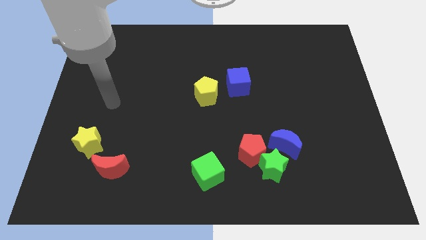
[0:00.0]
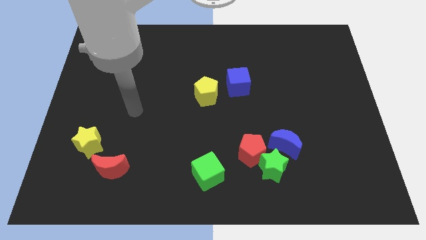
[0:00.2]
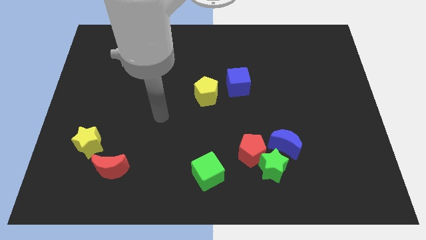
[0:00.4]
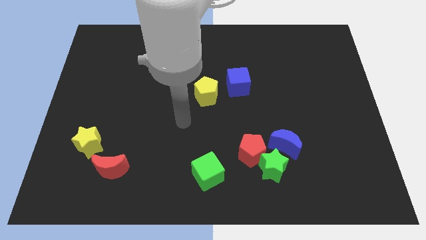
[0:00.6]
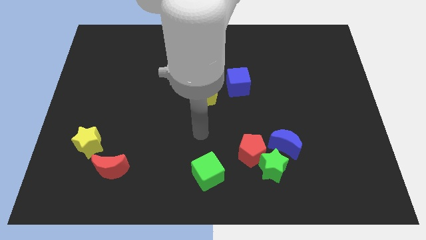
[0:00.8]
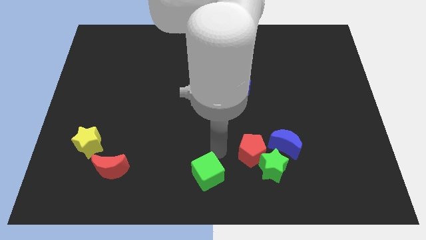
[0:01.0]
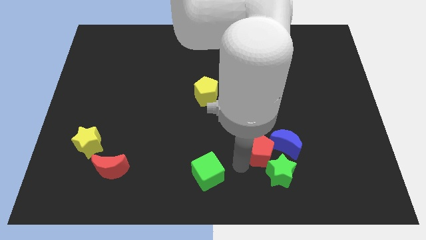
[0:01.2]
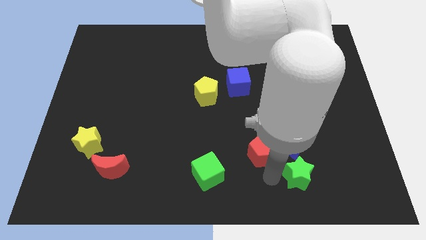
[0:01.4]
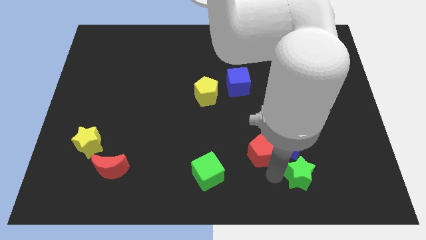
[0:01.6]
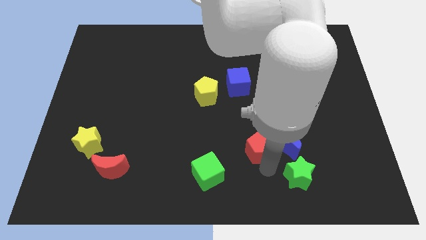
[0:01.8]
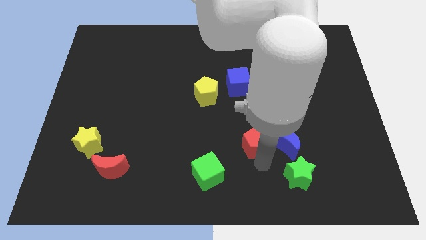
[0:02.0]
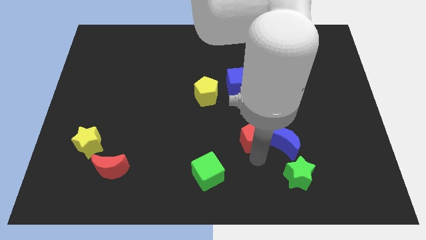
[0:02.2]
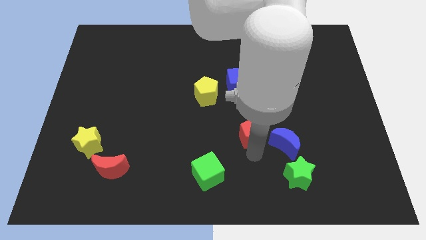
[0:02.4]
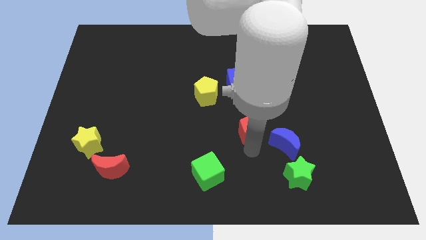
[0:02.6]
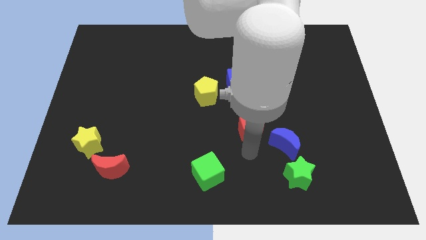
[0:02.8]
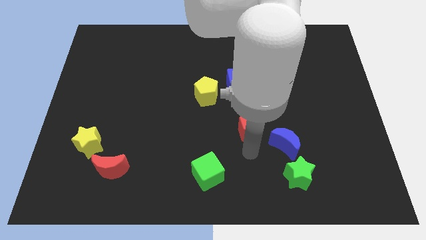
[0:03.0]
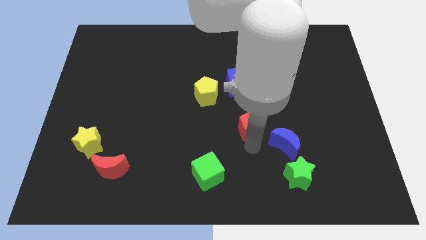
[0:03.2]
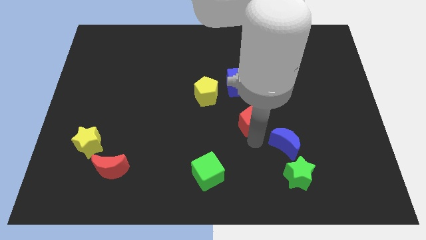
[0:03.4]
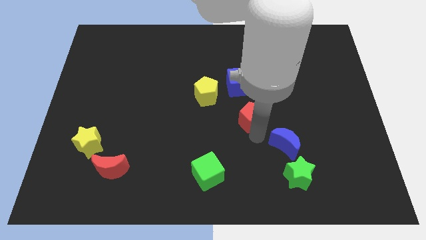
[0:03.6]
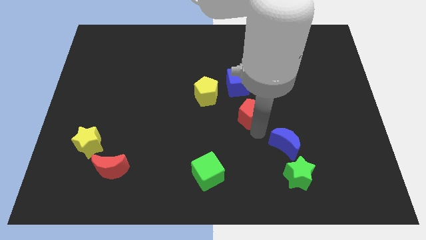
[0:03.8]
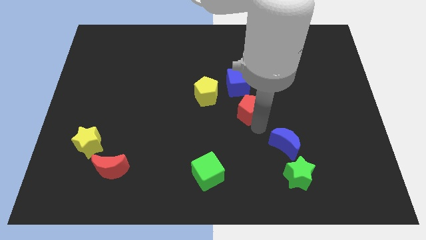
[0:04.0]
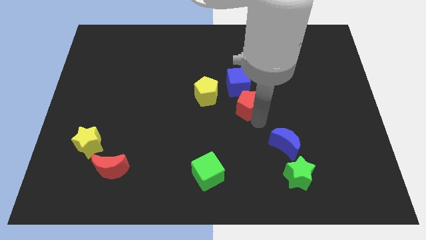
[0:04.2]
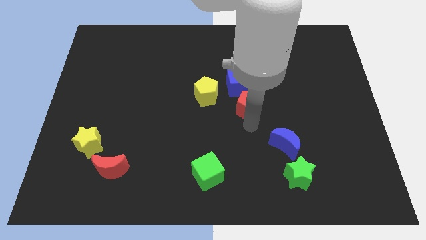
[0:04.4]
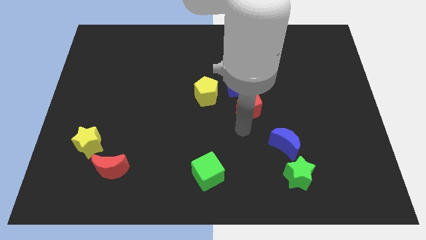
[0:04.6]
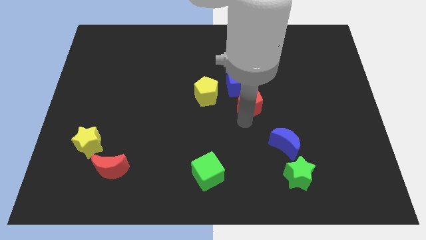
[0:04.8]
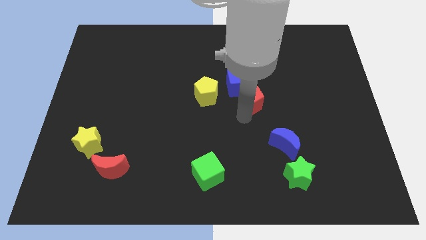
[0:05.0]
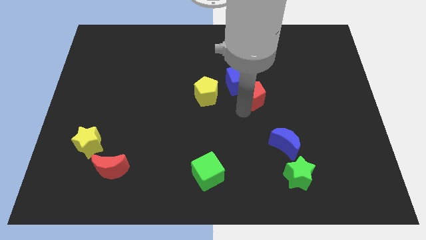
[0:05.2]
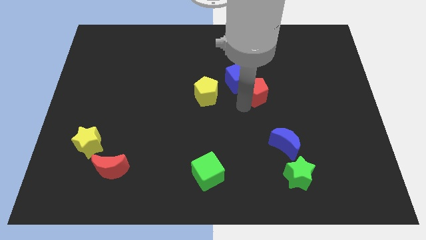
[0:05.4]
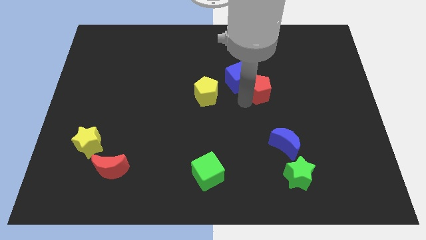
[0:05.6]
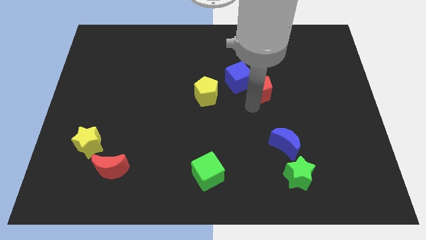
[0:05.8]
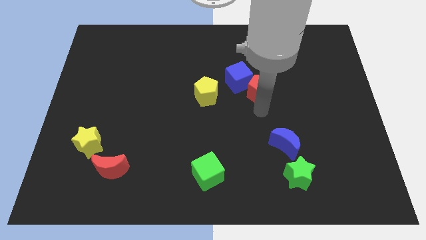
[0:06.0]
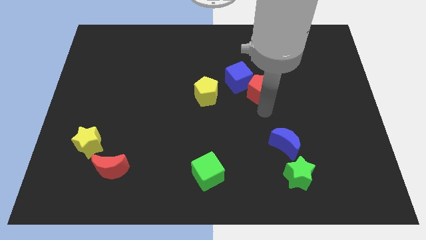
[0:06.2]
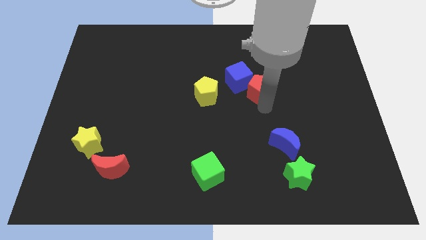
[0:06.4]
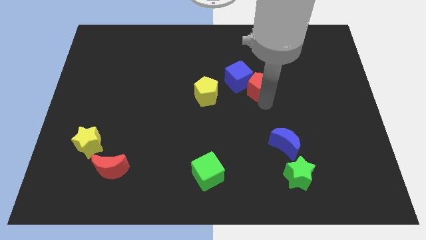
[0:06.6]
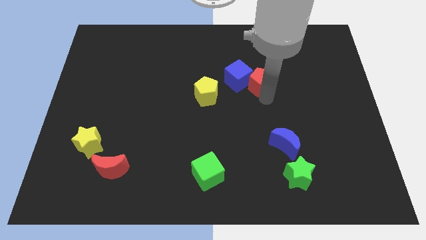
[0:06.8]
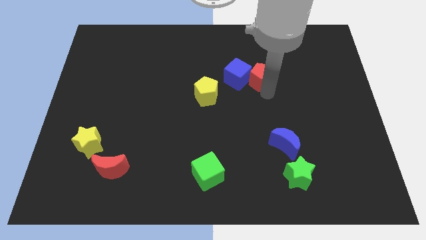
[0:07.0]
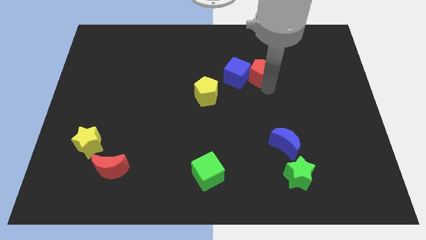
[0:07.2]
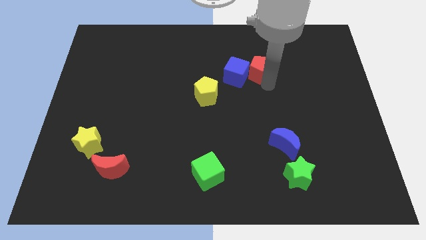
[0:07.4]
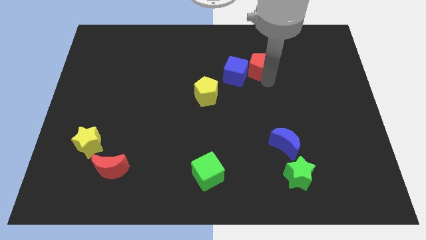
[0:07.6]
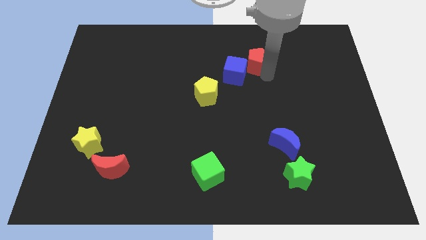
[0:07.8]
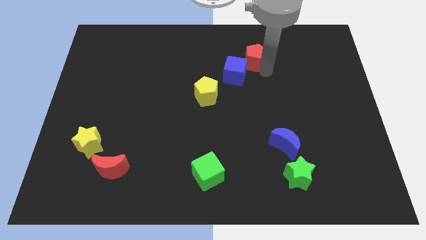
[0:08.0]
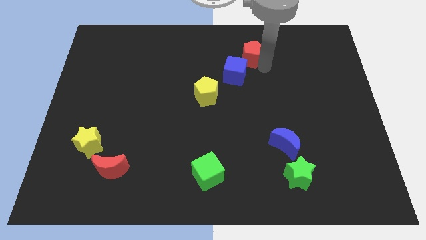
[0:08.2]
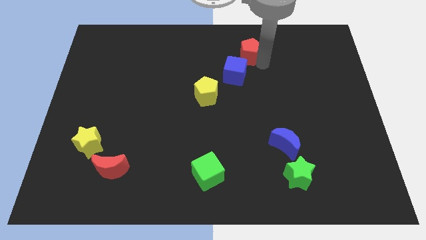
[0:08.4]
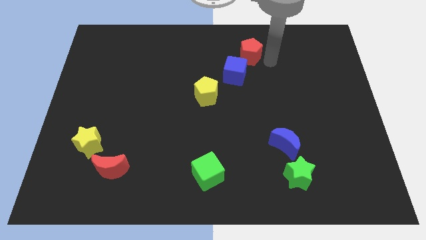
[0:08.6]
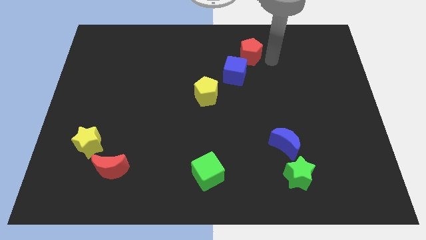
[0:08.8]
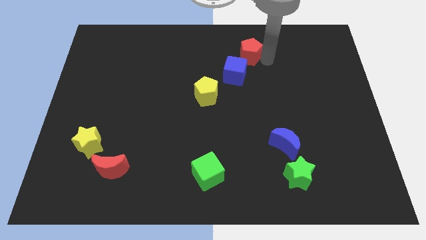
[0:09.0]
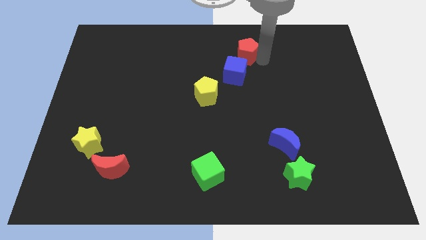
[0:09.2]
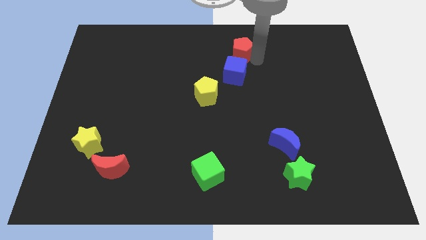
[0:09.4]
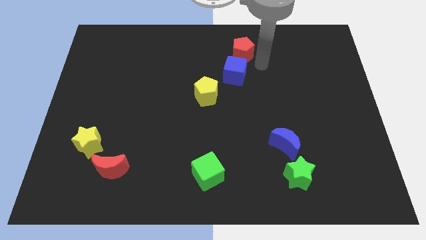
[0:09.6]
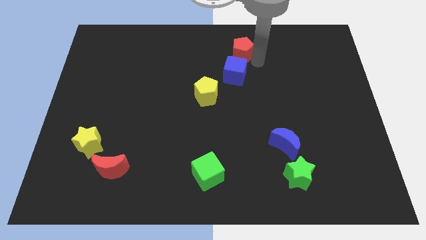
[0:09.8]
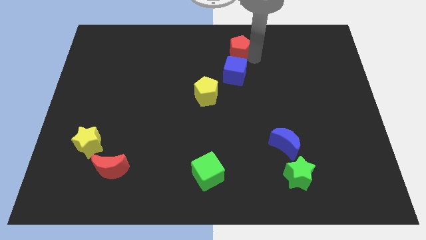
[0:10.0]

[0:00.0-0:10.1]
put the red pentagon to the top side

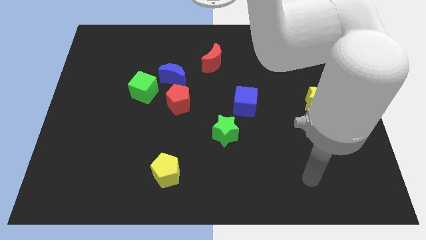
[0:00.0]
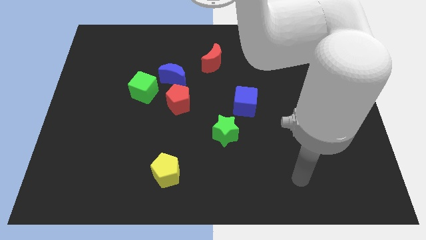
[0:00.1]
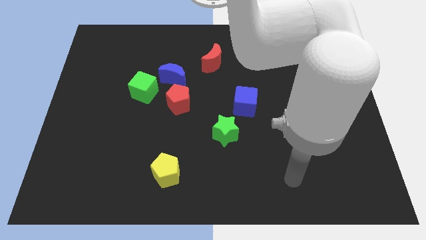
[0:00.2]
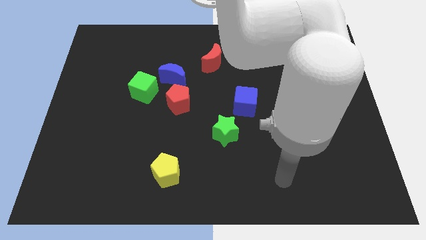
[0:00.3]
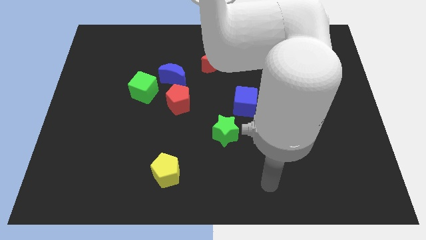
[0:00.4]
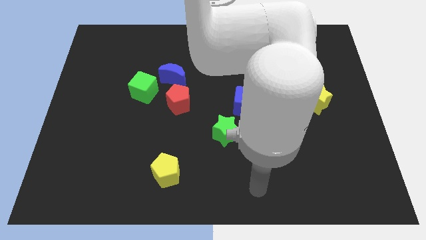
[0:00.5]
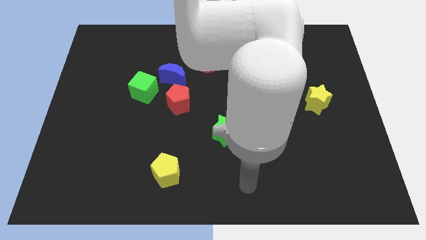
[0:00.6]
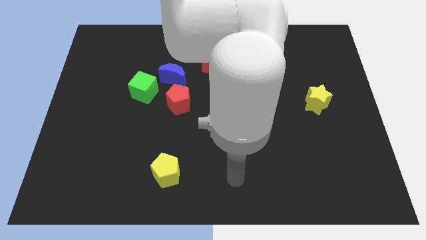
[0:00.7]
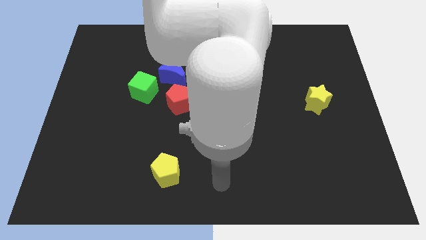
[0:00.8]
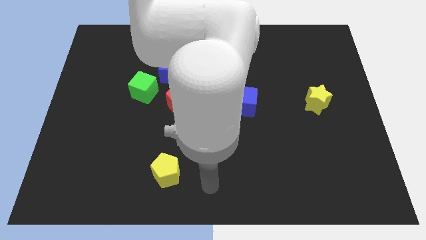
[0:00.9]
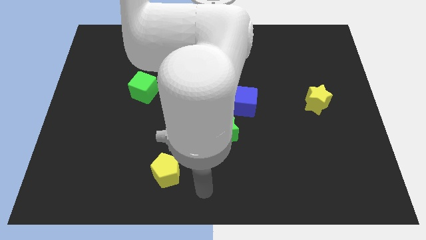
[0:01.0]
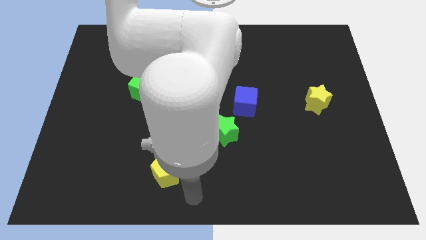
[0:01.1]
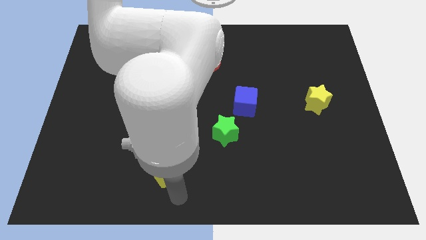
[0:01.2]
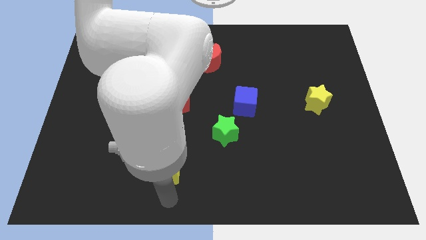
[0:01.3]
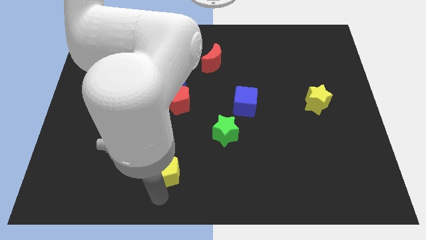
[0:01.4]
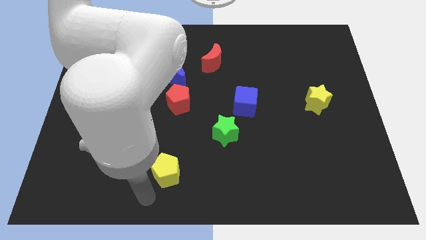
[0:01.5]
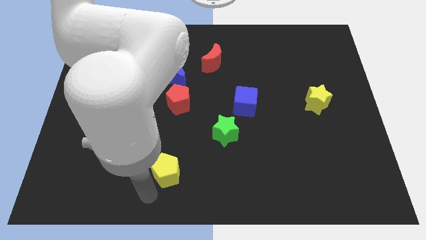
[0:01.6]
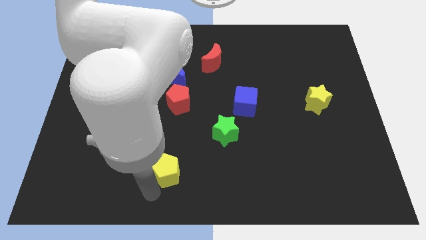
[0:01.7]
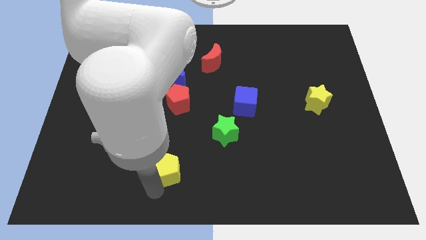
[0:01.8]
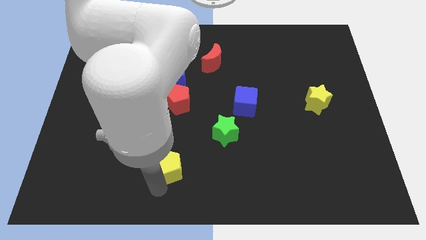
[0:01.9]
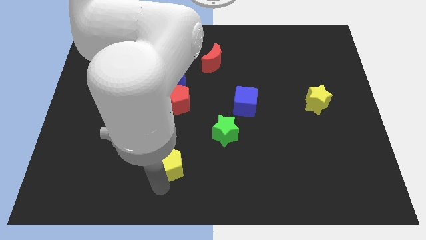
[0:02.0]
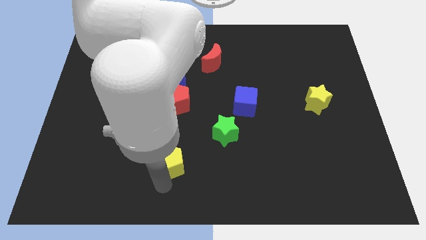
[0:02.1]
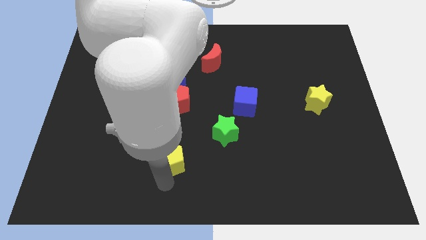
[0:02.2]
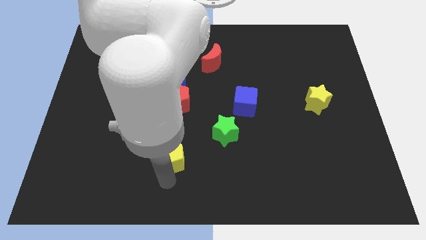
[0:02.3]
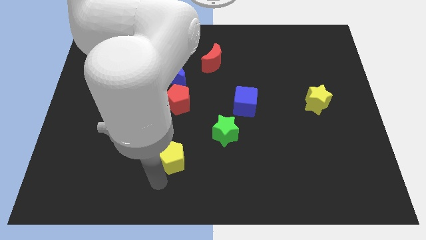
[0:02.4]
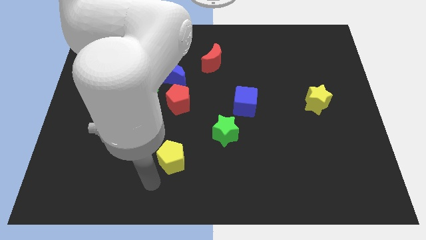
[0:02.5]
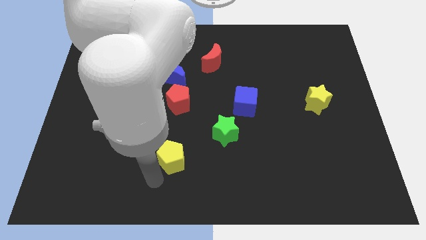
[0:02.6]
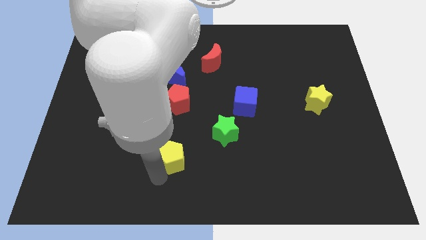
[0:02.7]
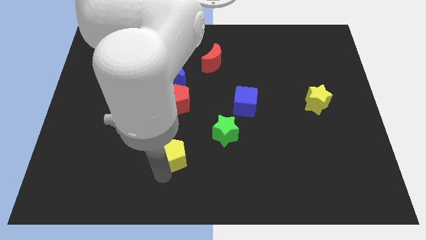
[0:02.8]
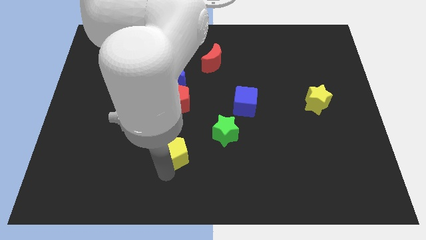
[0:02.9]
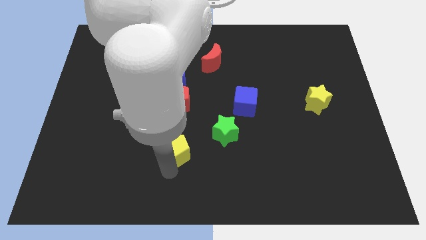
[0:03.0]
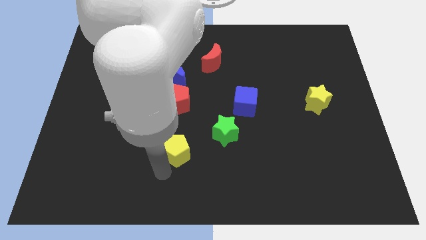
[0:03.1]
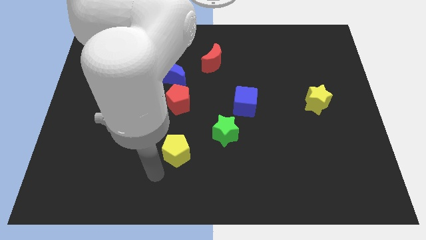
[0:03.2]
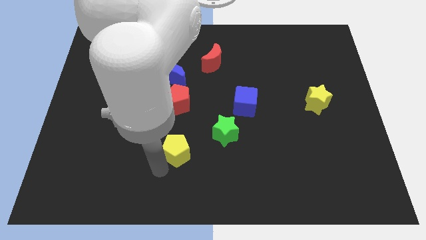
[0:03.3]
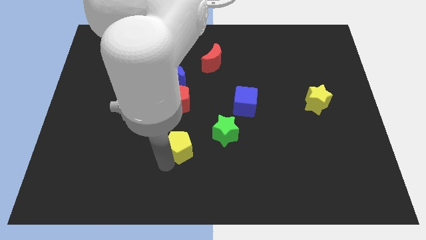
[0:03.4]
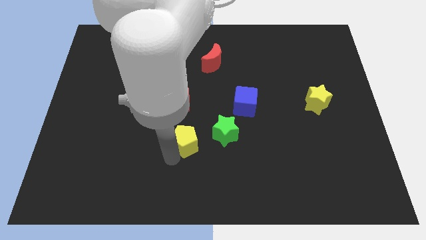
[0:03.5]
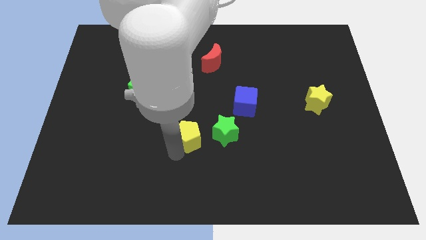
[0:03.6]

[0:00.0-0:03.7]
slide the yellow pentagon to the middle of the board
